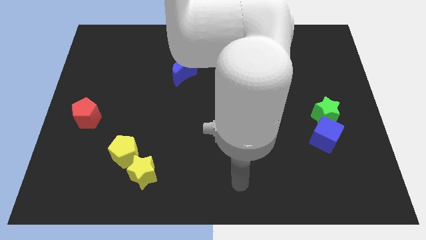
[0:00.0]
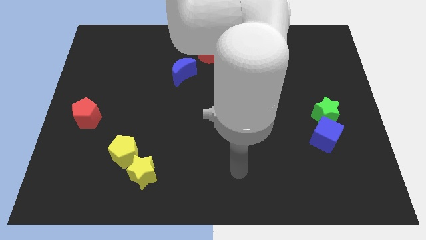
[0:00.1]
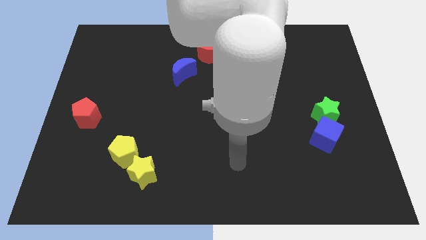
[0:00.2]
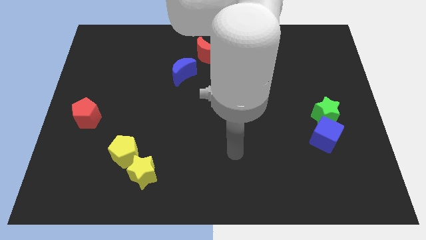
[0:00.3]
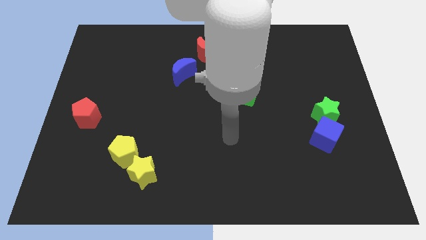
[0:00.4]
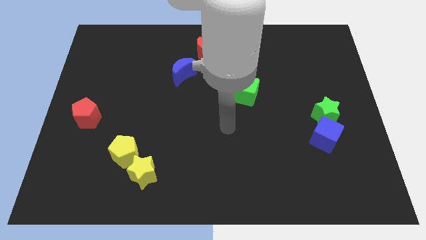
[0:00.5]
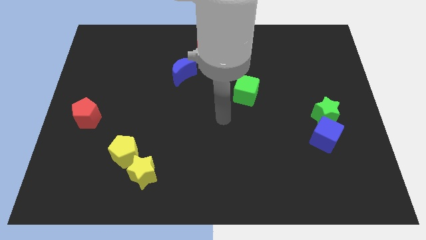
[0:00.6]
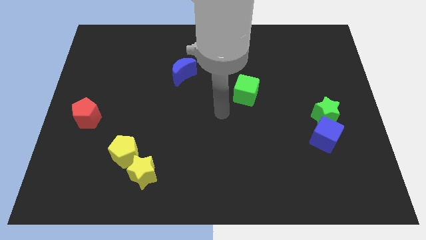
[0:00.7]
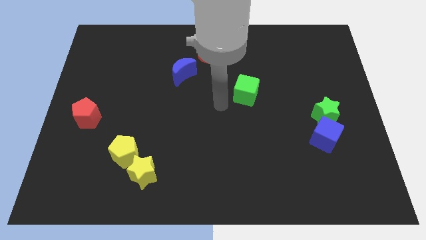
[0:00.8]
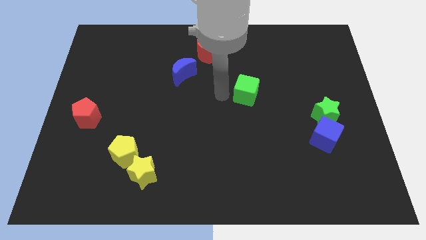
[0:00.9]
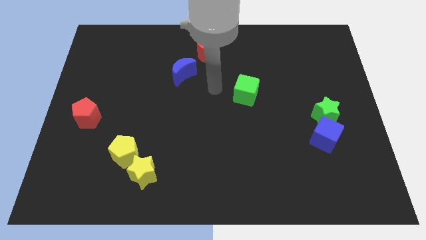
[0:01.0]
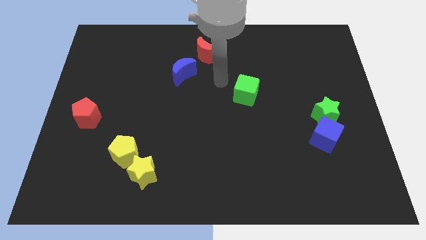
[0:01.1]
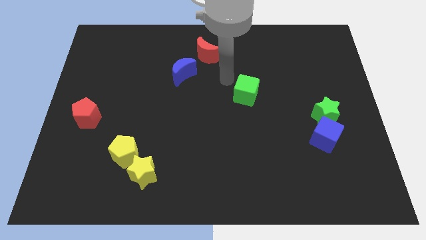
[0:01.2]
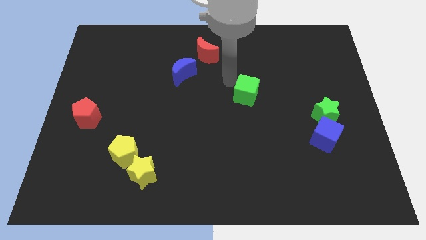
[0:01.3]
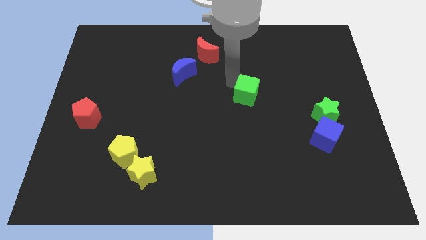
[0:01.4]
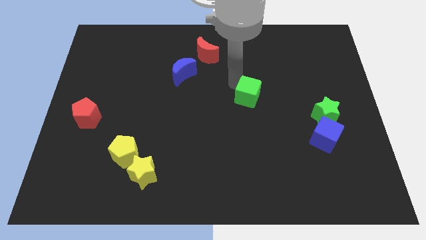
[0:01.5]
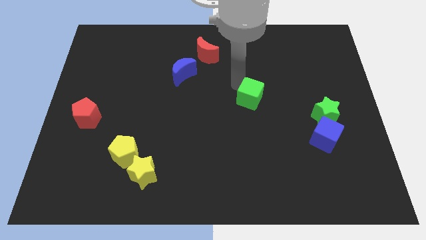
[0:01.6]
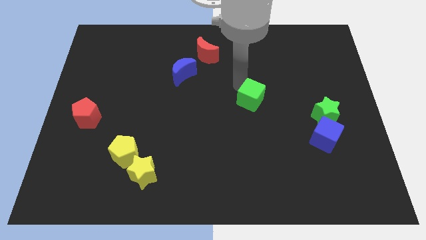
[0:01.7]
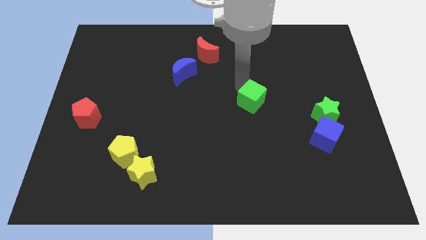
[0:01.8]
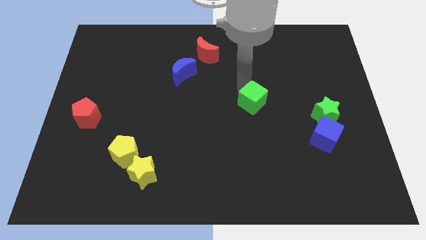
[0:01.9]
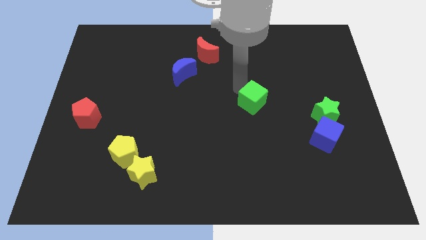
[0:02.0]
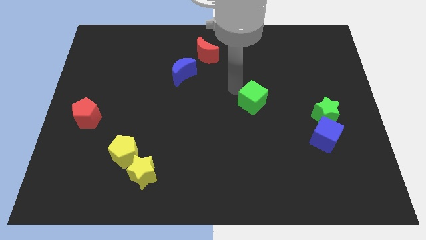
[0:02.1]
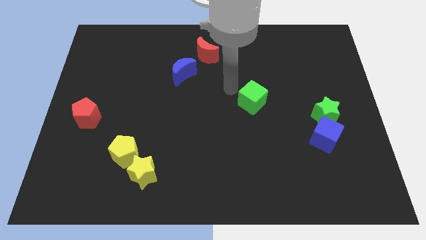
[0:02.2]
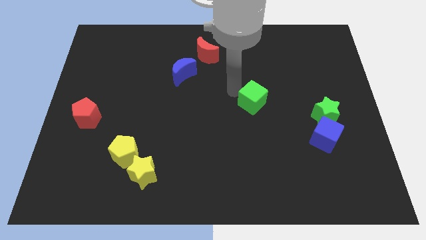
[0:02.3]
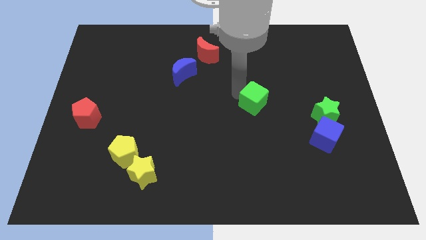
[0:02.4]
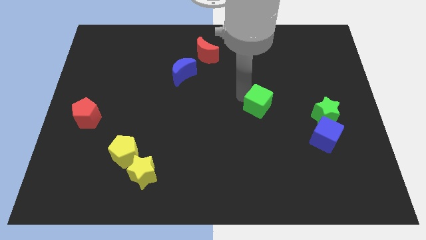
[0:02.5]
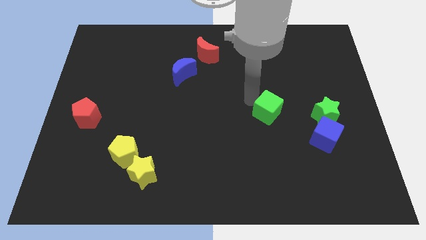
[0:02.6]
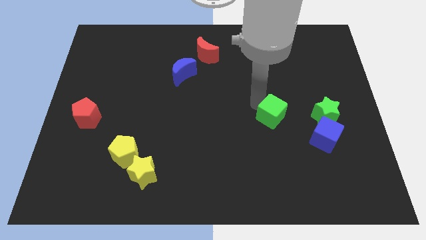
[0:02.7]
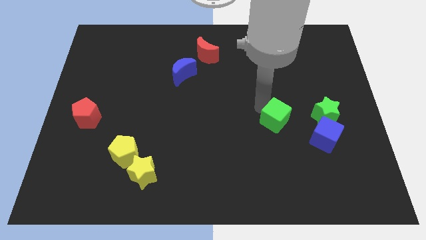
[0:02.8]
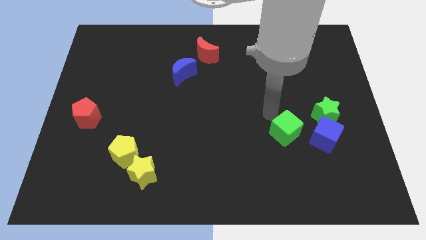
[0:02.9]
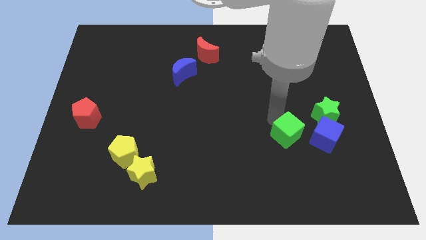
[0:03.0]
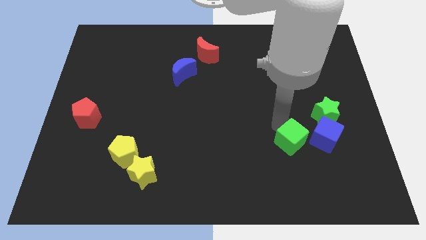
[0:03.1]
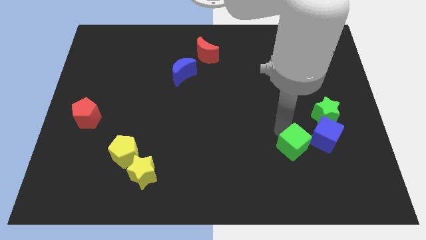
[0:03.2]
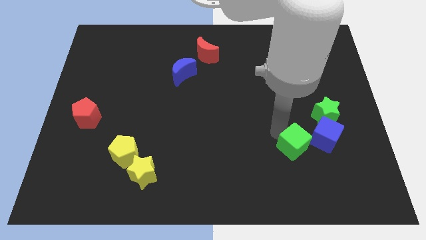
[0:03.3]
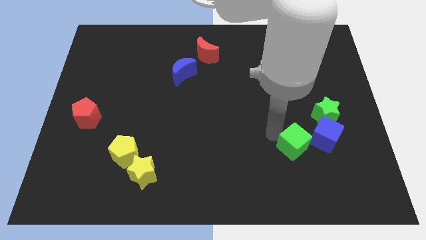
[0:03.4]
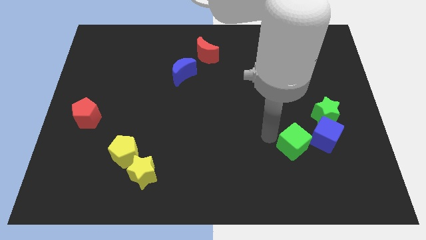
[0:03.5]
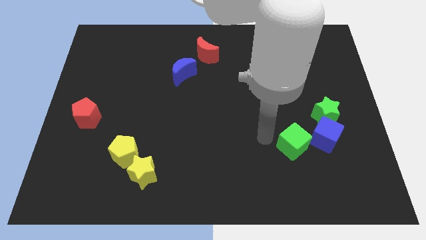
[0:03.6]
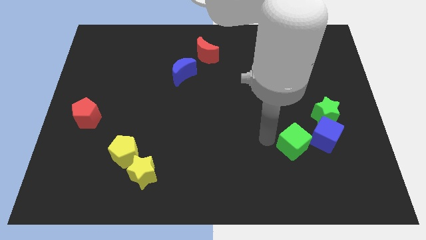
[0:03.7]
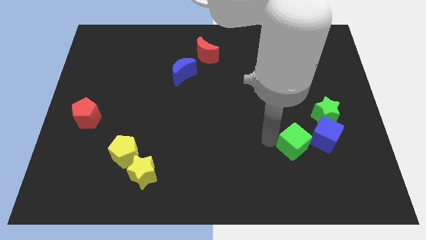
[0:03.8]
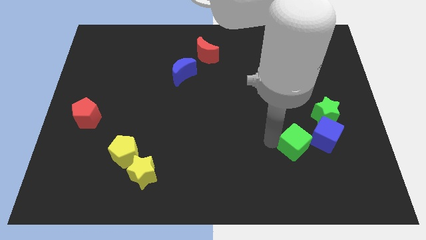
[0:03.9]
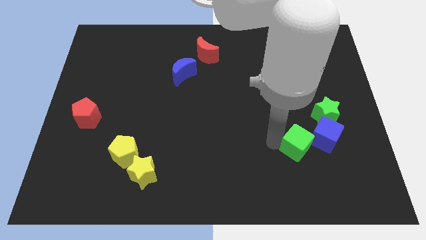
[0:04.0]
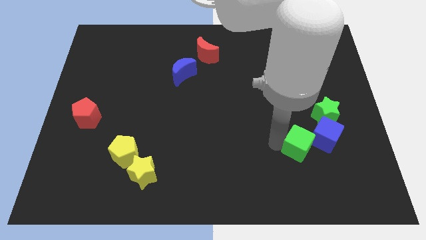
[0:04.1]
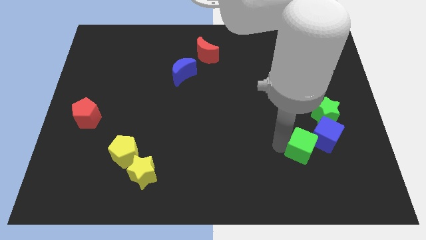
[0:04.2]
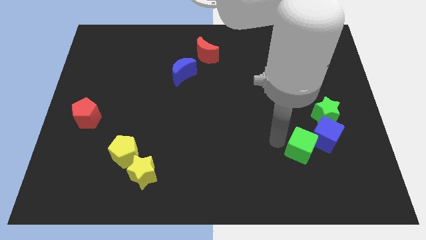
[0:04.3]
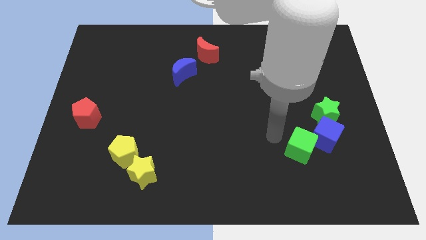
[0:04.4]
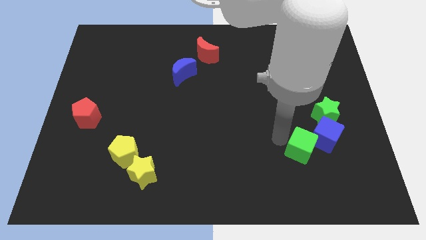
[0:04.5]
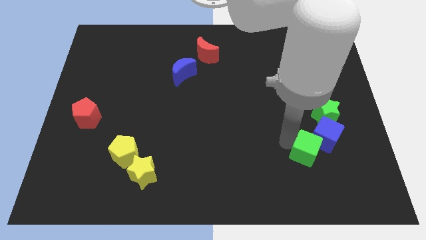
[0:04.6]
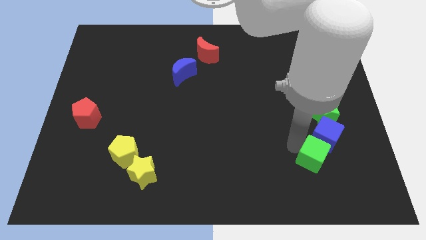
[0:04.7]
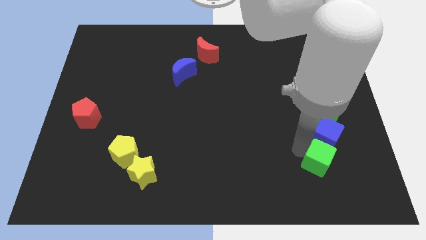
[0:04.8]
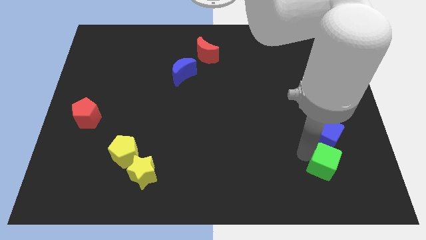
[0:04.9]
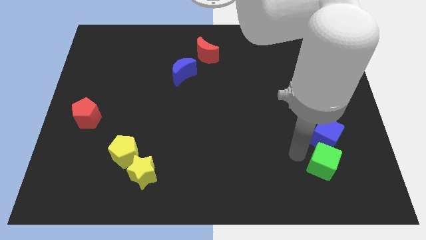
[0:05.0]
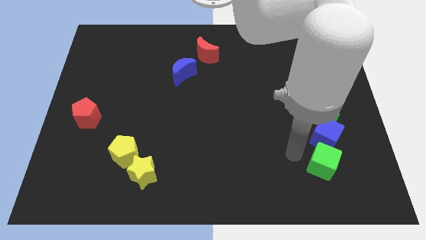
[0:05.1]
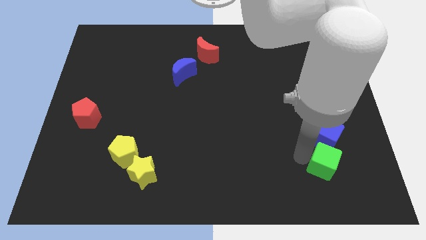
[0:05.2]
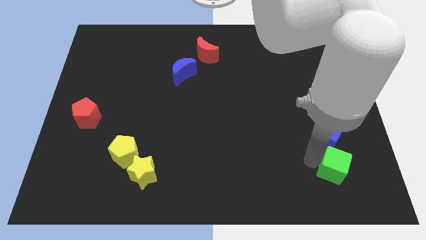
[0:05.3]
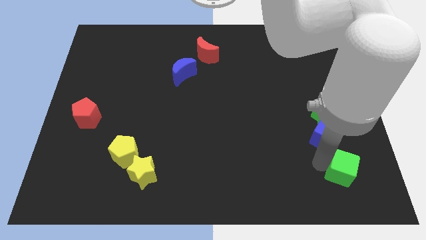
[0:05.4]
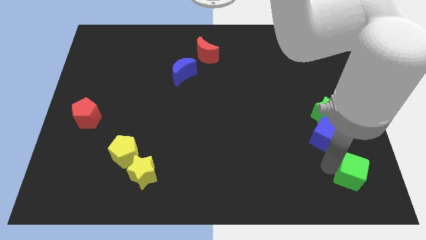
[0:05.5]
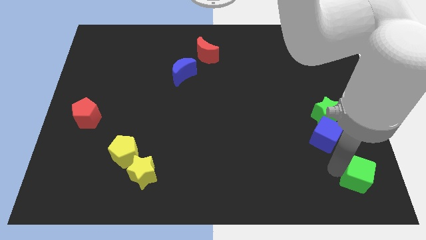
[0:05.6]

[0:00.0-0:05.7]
move the green cube to the lower right corner
